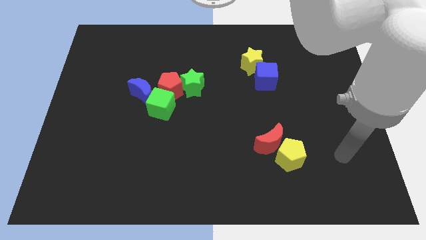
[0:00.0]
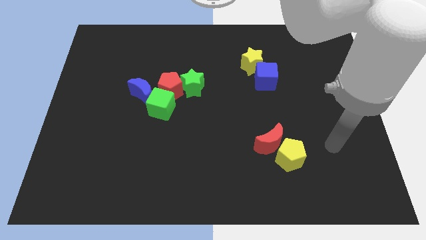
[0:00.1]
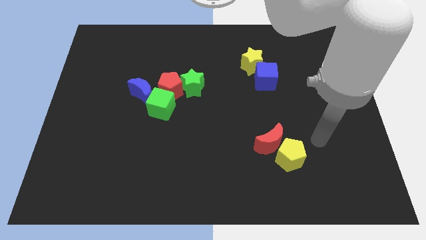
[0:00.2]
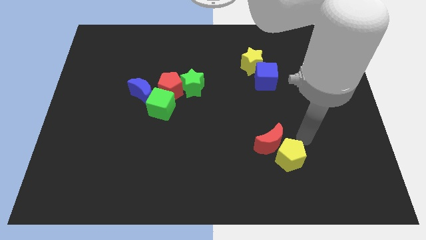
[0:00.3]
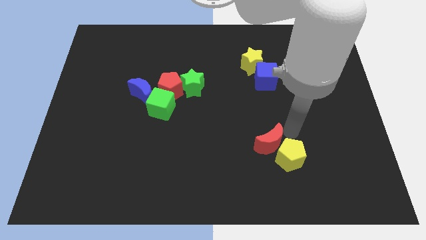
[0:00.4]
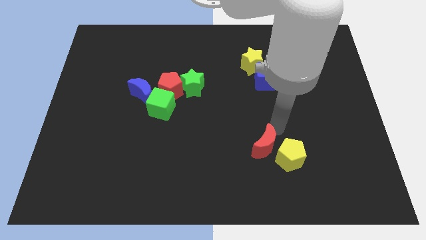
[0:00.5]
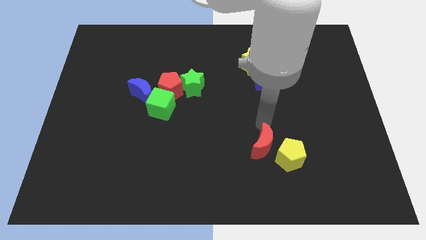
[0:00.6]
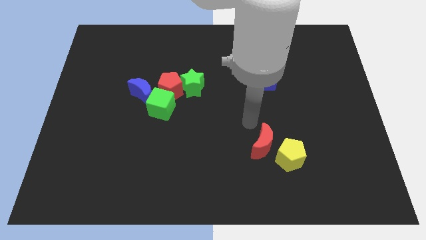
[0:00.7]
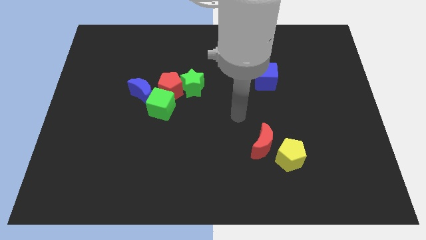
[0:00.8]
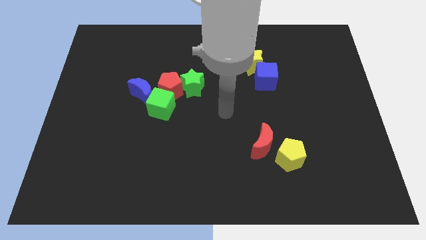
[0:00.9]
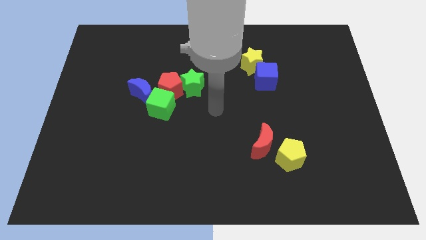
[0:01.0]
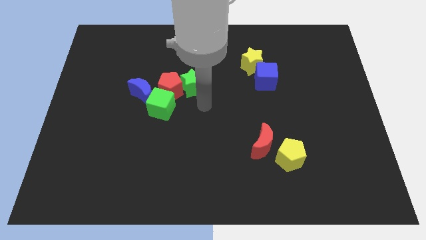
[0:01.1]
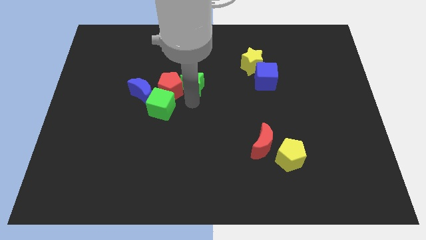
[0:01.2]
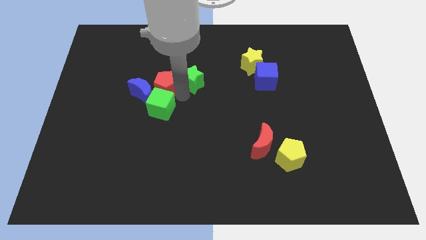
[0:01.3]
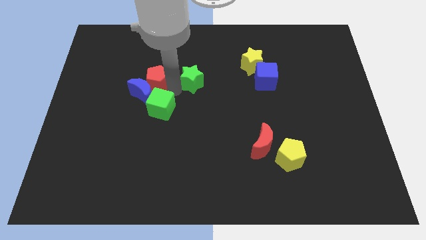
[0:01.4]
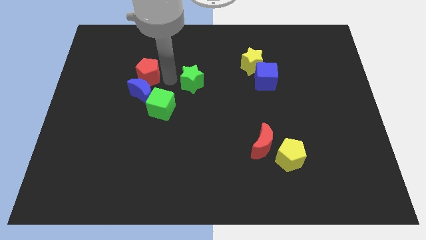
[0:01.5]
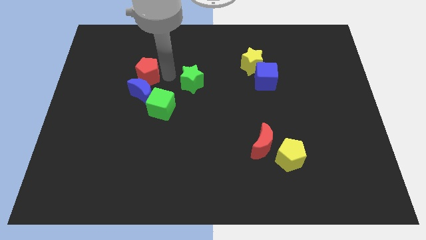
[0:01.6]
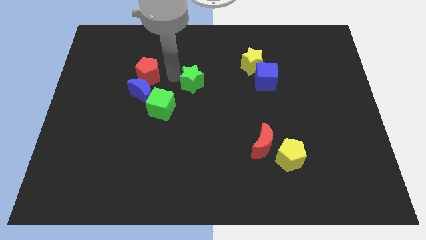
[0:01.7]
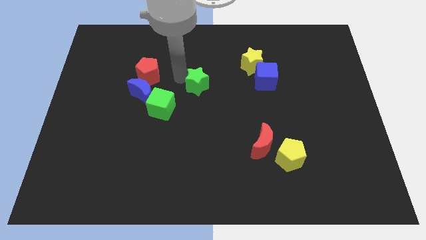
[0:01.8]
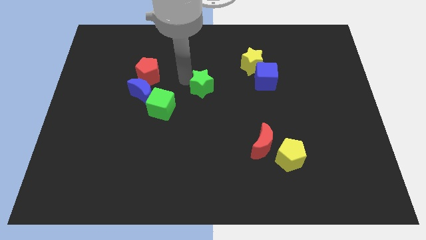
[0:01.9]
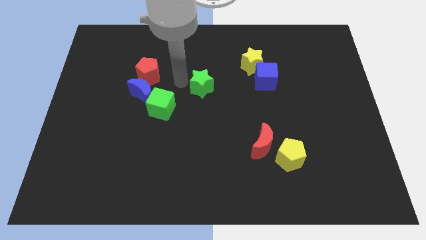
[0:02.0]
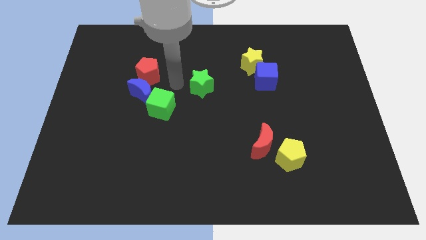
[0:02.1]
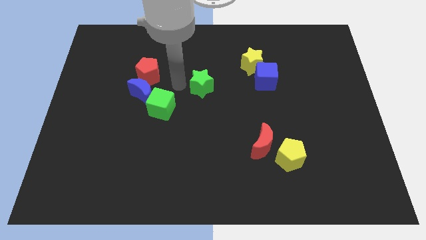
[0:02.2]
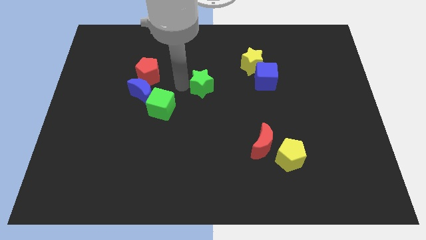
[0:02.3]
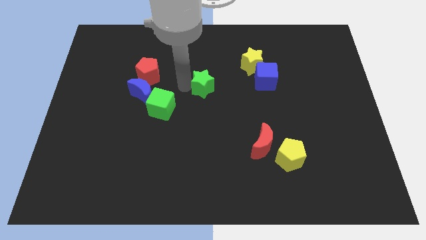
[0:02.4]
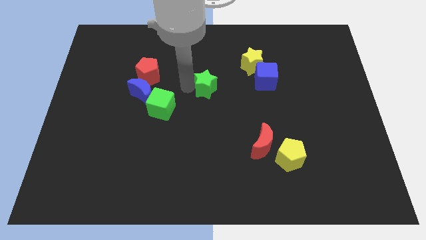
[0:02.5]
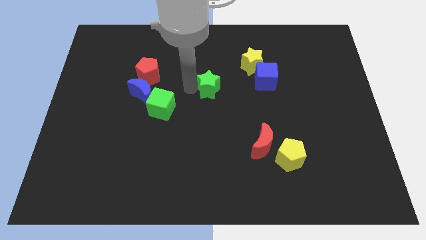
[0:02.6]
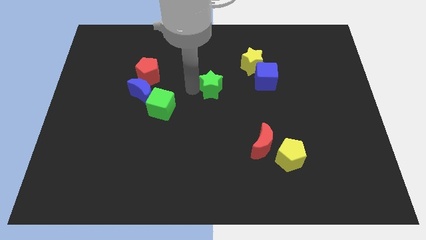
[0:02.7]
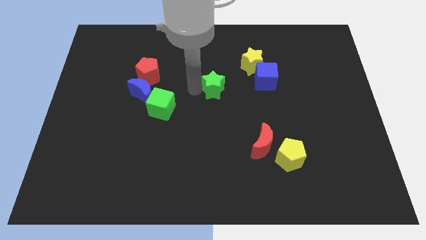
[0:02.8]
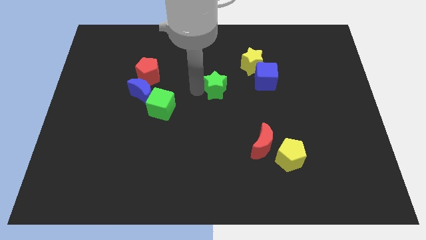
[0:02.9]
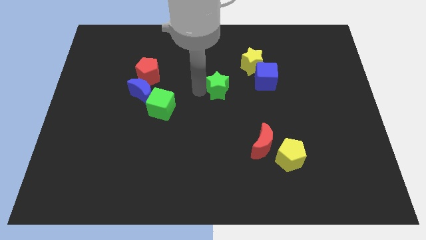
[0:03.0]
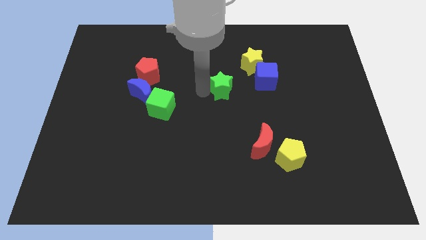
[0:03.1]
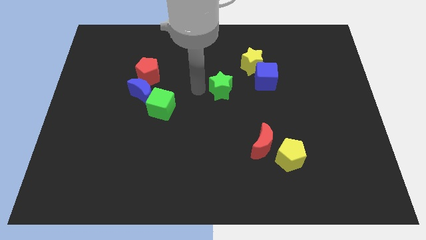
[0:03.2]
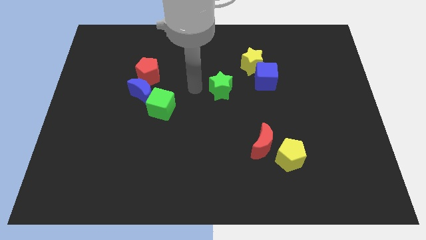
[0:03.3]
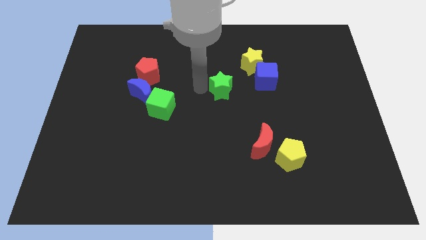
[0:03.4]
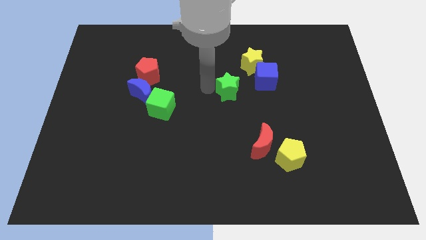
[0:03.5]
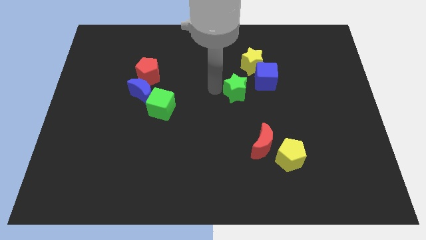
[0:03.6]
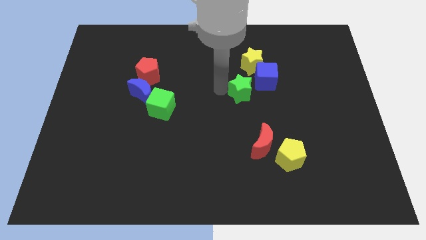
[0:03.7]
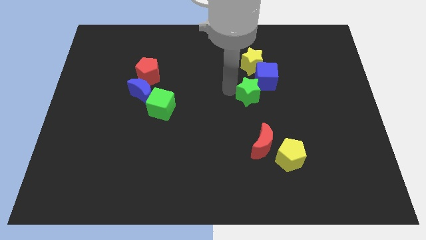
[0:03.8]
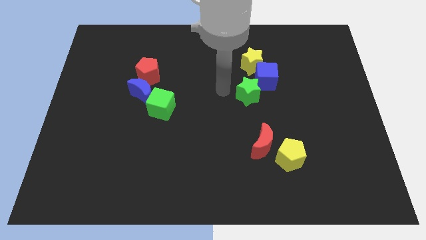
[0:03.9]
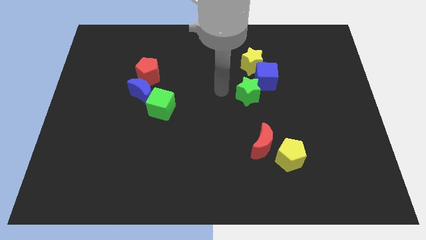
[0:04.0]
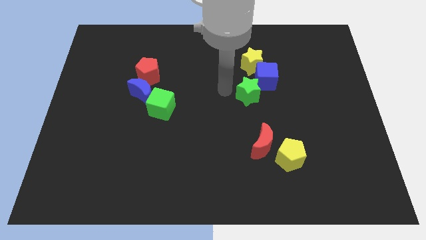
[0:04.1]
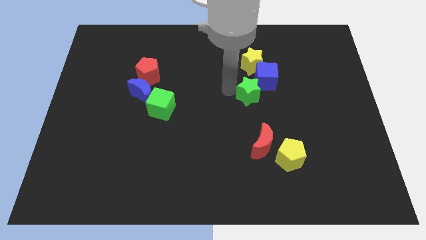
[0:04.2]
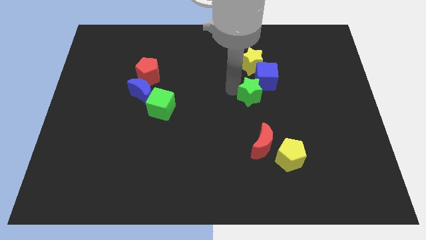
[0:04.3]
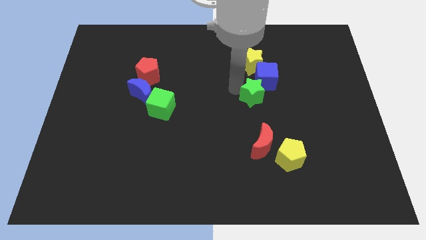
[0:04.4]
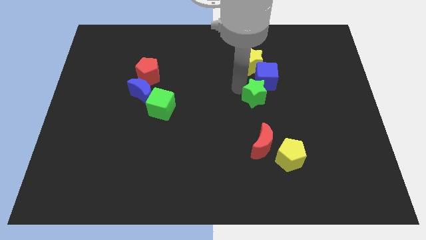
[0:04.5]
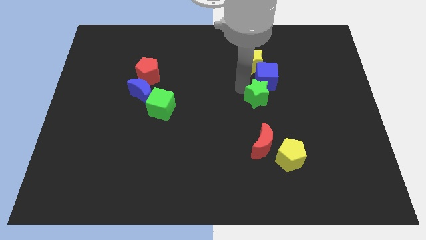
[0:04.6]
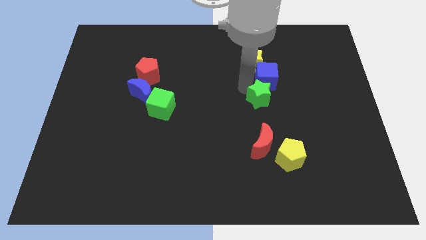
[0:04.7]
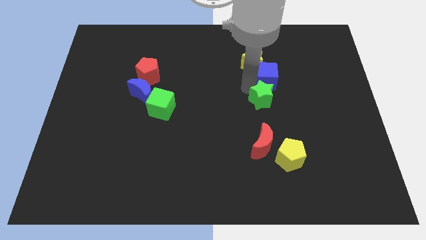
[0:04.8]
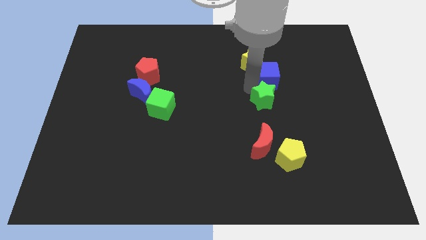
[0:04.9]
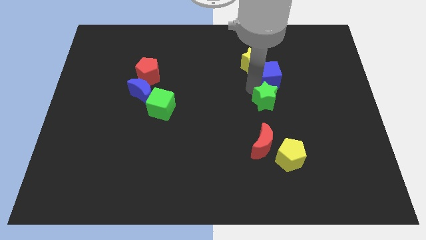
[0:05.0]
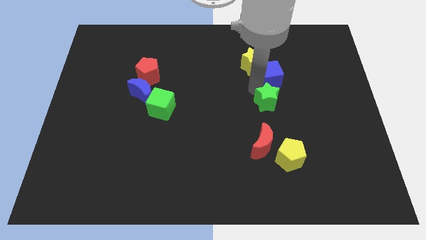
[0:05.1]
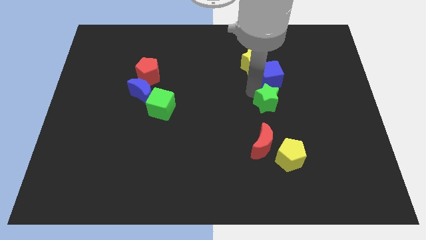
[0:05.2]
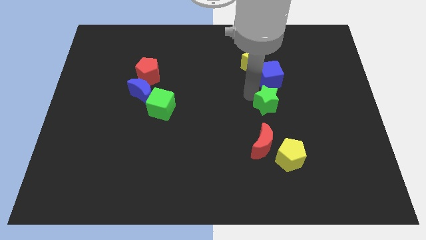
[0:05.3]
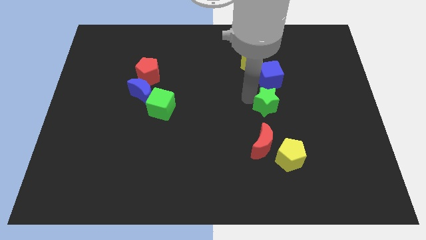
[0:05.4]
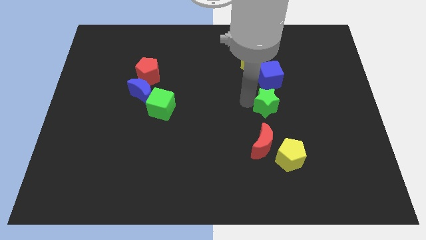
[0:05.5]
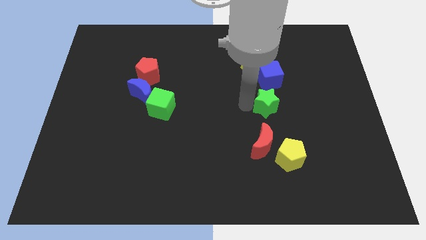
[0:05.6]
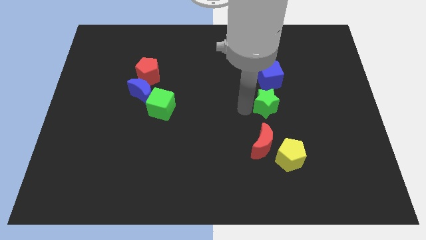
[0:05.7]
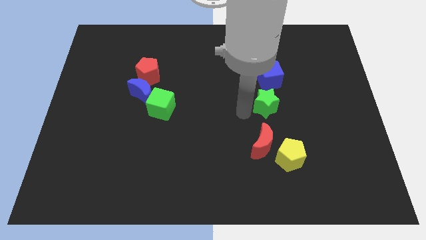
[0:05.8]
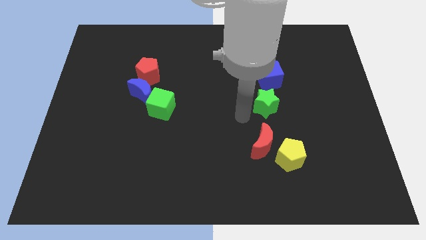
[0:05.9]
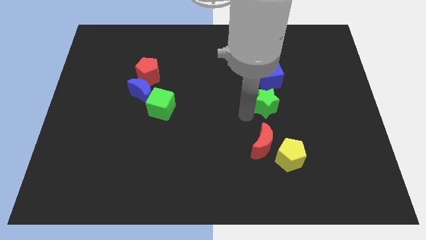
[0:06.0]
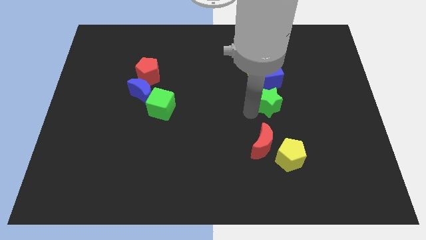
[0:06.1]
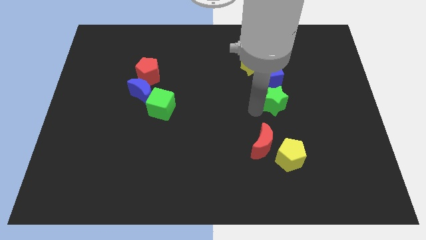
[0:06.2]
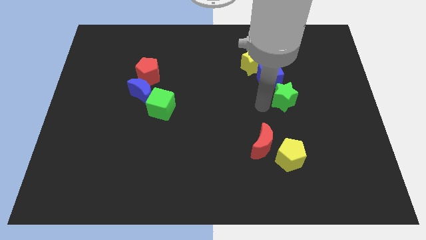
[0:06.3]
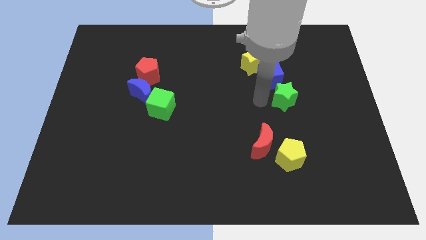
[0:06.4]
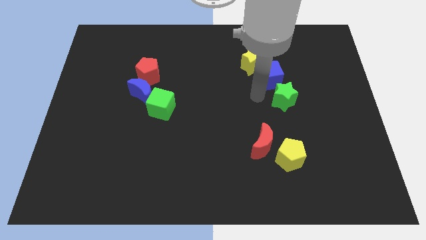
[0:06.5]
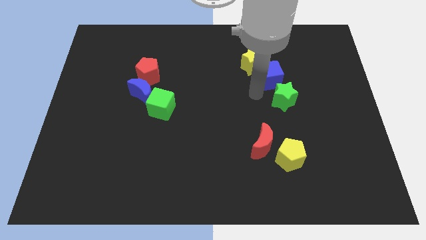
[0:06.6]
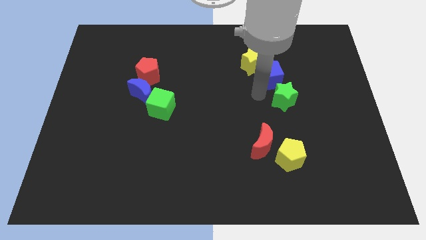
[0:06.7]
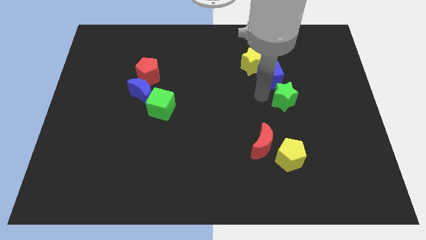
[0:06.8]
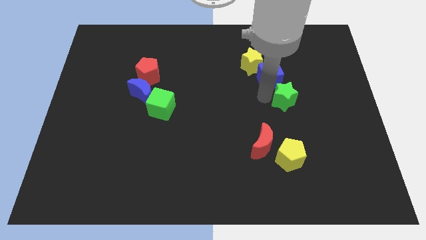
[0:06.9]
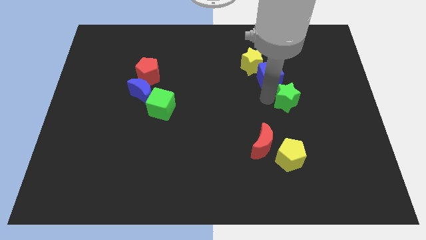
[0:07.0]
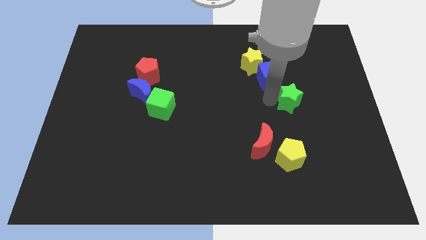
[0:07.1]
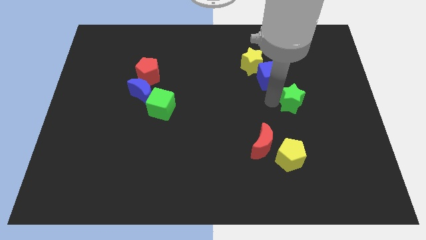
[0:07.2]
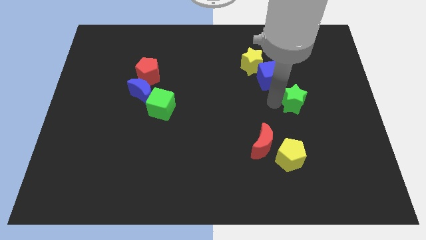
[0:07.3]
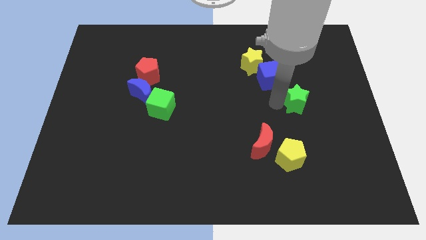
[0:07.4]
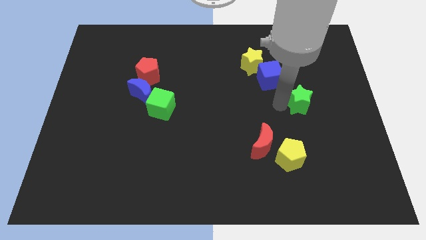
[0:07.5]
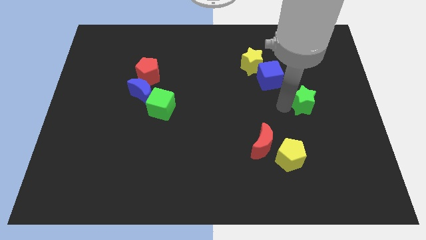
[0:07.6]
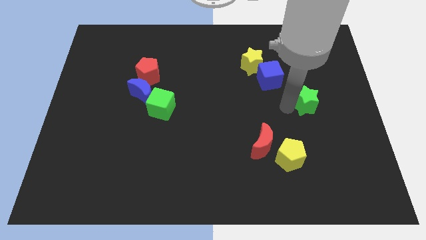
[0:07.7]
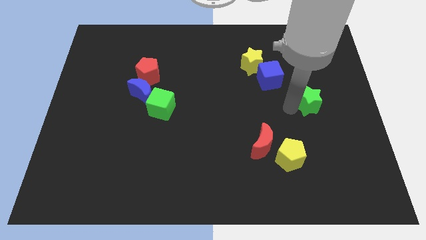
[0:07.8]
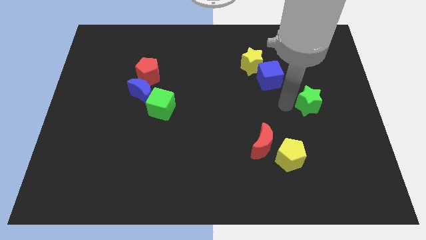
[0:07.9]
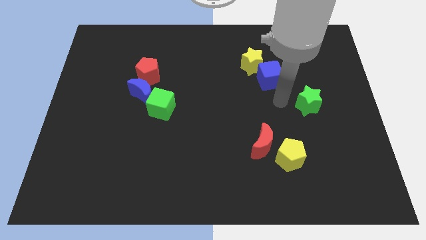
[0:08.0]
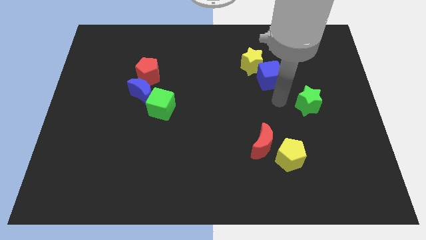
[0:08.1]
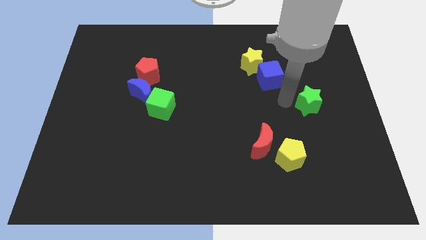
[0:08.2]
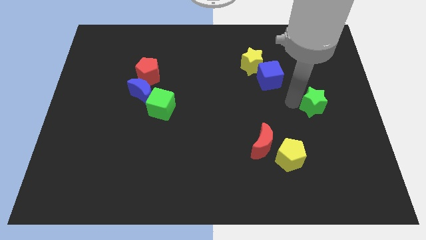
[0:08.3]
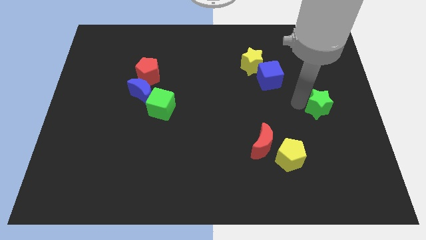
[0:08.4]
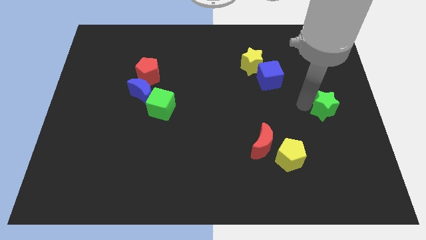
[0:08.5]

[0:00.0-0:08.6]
slide the green star to the right side of the board
